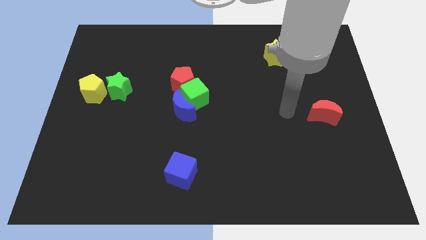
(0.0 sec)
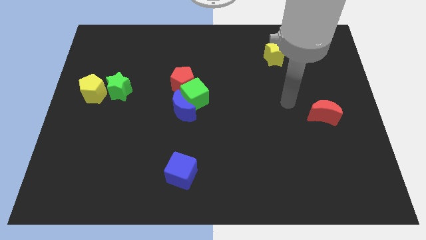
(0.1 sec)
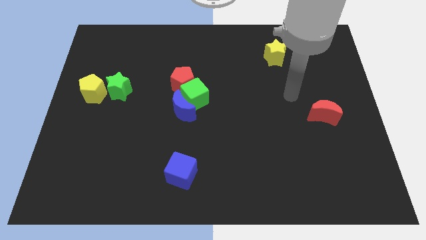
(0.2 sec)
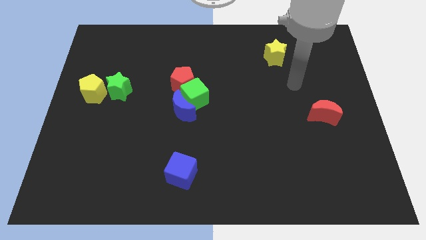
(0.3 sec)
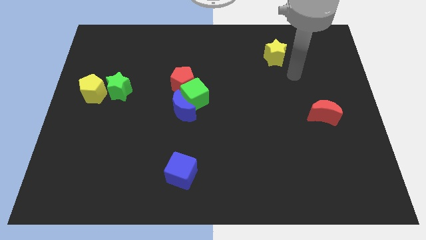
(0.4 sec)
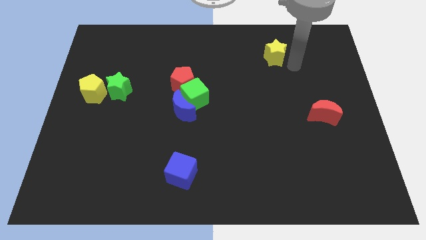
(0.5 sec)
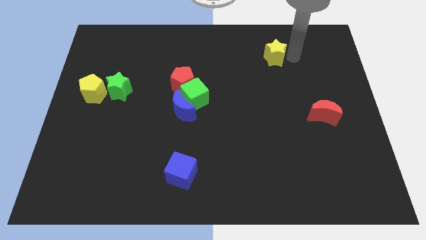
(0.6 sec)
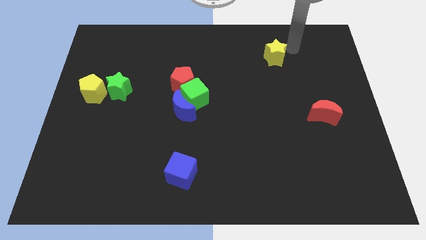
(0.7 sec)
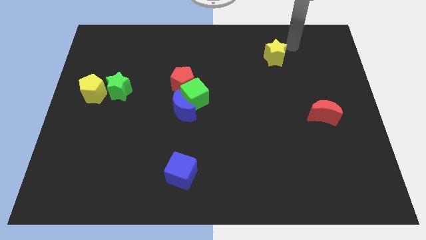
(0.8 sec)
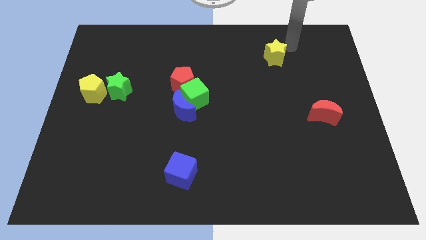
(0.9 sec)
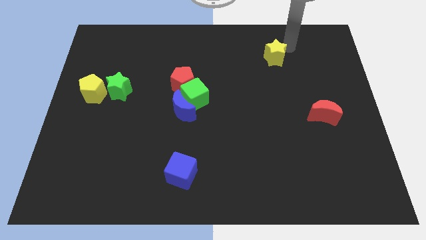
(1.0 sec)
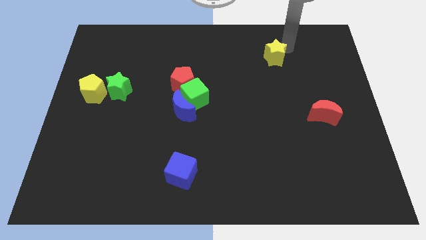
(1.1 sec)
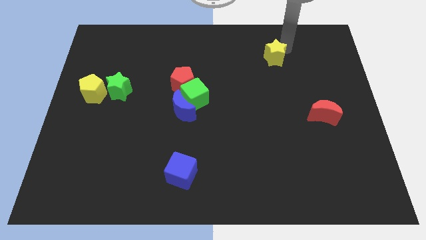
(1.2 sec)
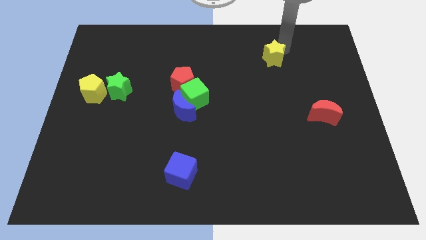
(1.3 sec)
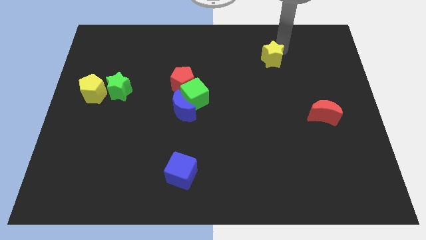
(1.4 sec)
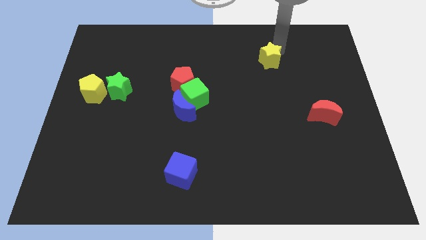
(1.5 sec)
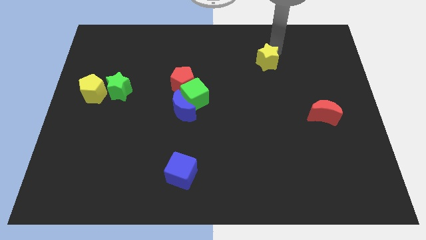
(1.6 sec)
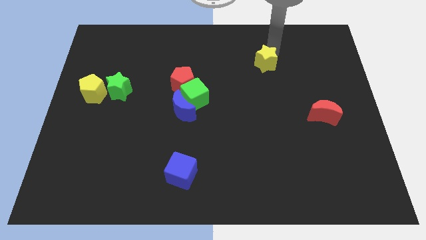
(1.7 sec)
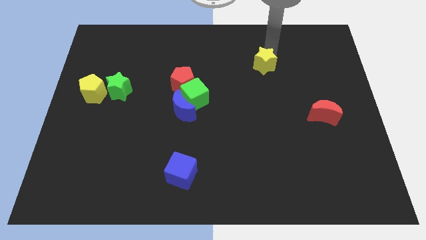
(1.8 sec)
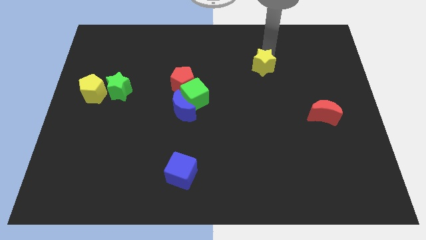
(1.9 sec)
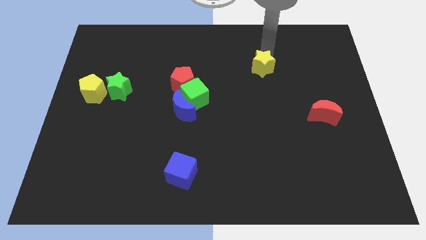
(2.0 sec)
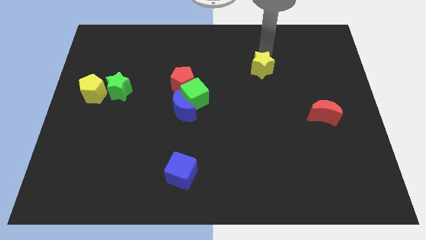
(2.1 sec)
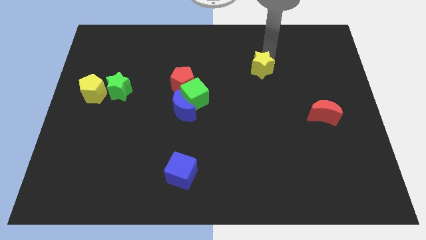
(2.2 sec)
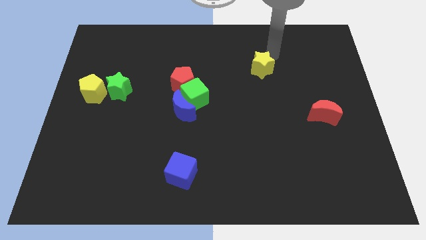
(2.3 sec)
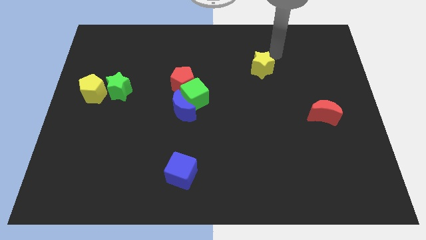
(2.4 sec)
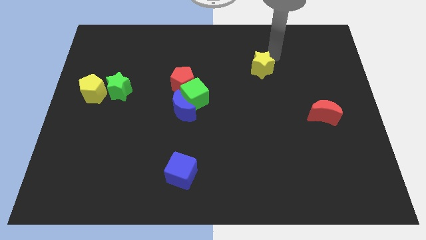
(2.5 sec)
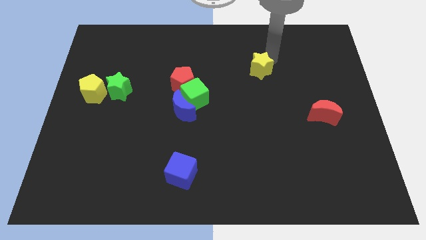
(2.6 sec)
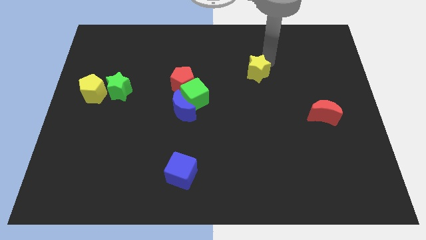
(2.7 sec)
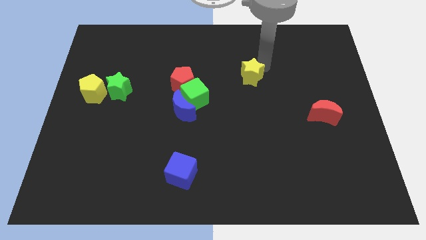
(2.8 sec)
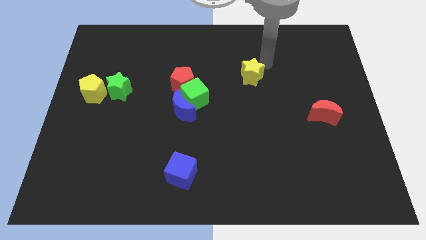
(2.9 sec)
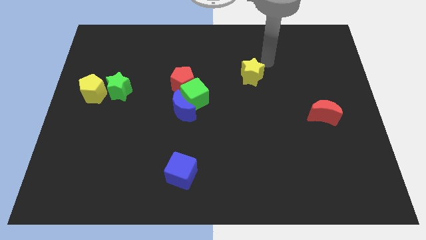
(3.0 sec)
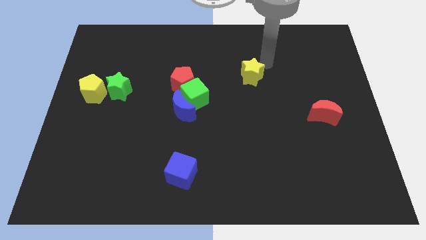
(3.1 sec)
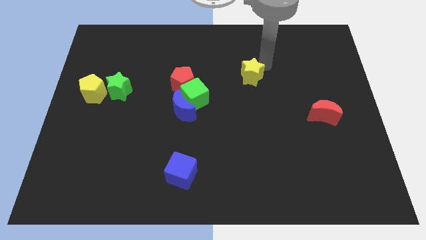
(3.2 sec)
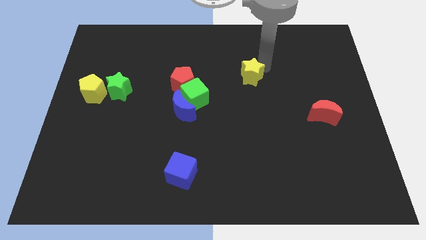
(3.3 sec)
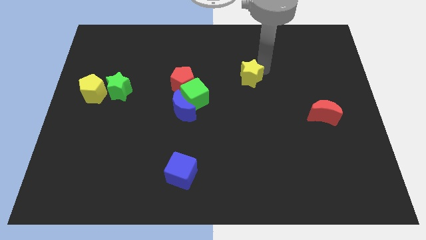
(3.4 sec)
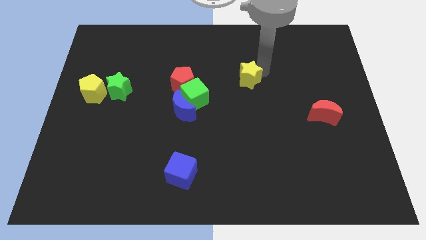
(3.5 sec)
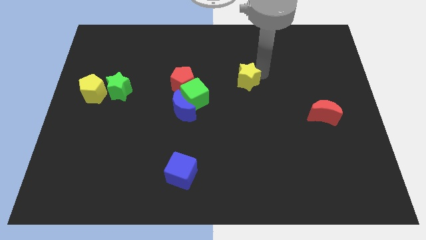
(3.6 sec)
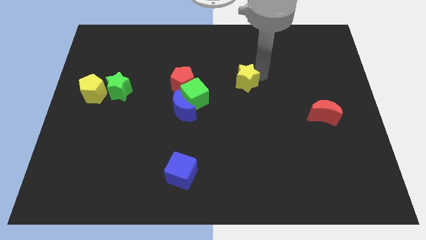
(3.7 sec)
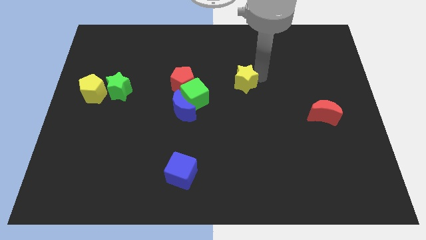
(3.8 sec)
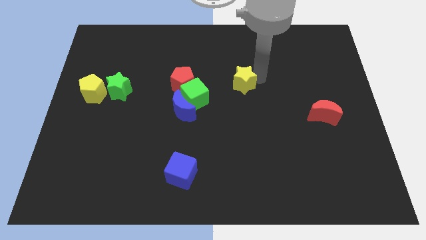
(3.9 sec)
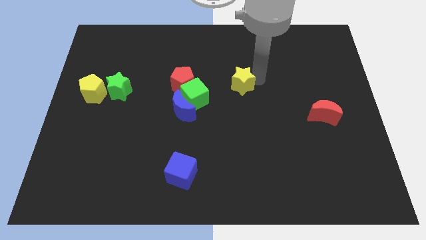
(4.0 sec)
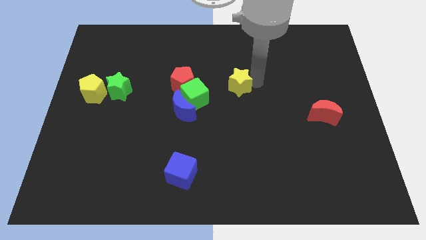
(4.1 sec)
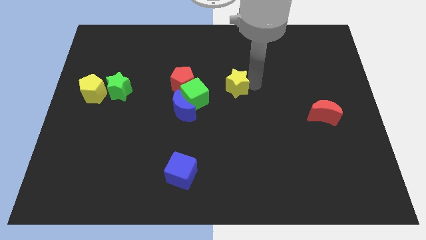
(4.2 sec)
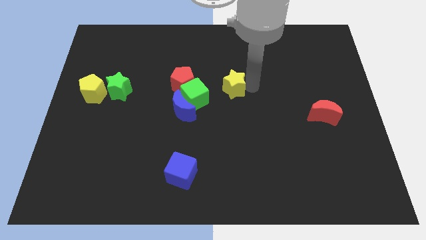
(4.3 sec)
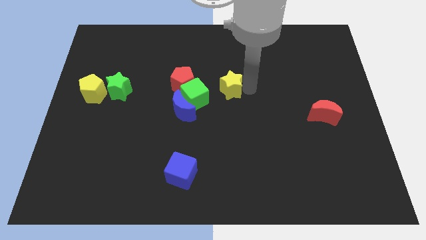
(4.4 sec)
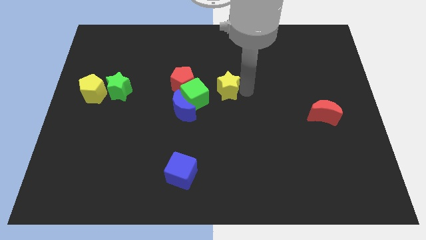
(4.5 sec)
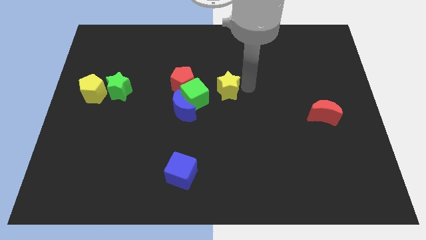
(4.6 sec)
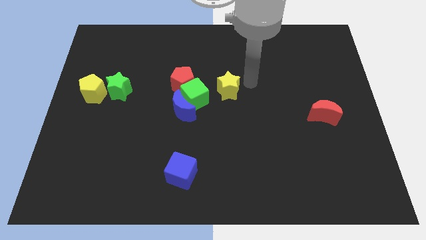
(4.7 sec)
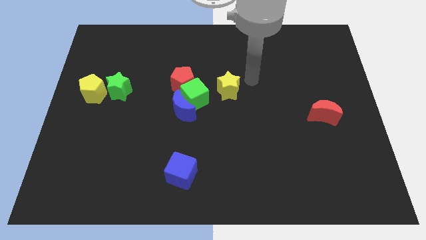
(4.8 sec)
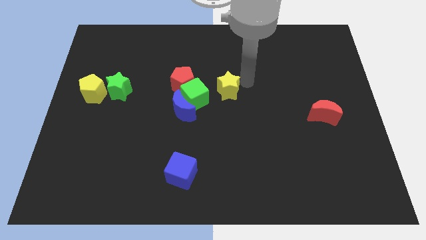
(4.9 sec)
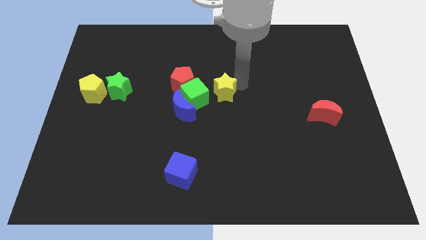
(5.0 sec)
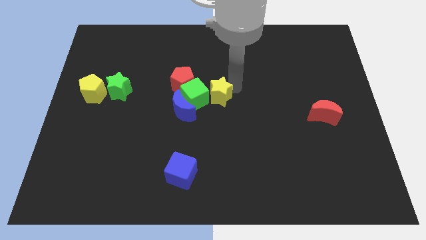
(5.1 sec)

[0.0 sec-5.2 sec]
slide the yellow star to the bottom right of the red pentagon

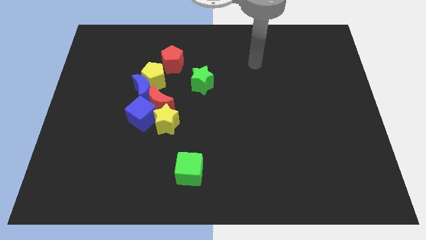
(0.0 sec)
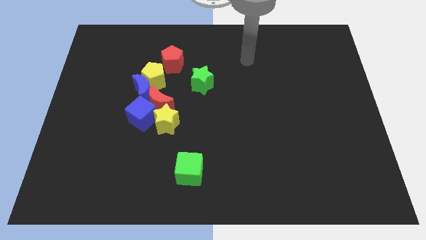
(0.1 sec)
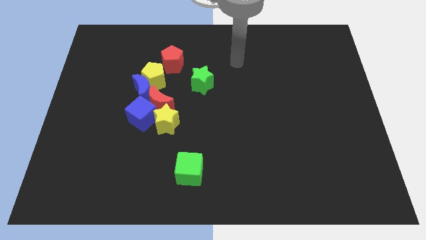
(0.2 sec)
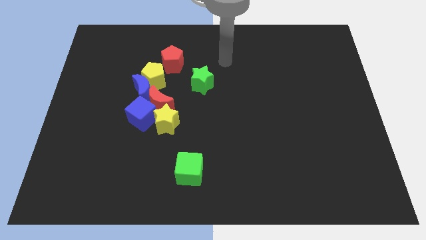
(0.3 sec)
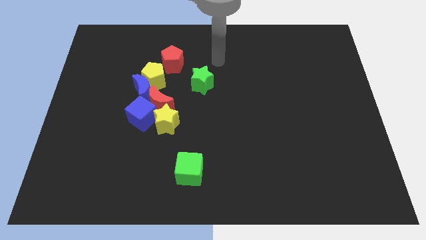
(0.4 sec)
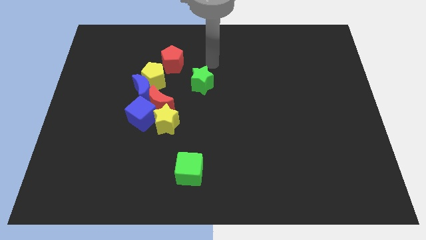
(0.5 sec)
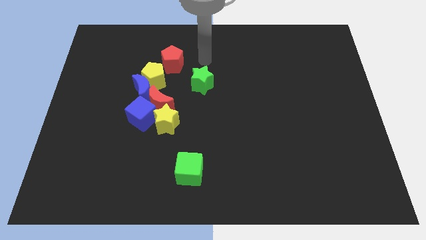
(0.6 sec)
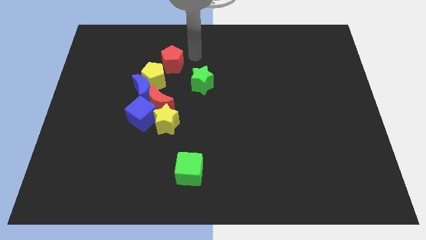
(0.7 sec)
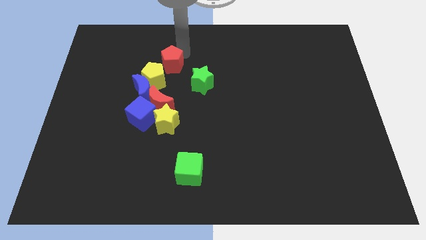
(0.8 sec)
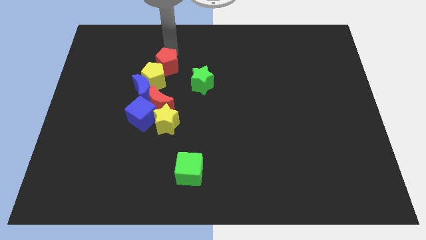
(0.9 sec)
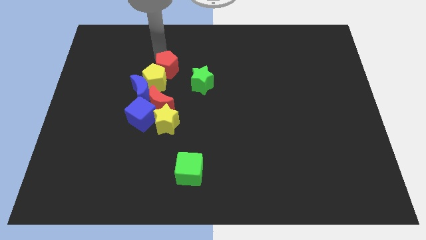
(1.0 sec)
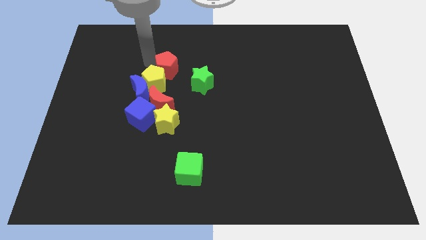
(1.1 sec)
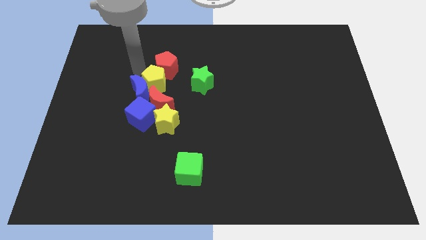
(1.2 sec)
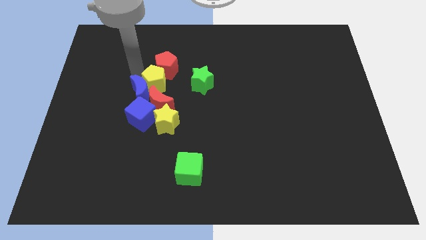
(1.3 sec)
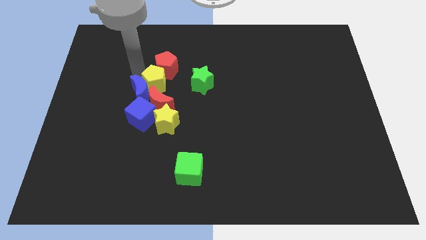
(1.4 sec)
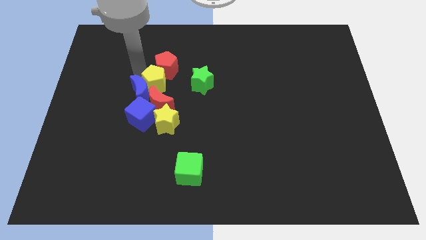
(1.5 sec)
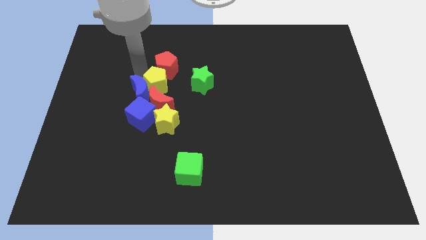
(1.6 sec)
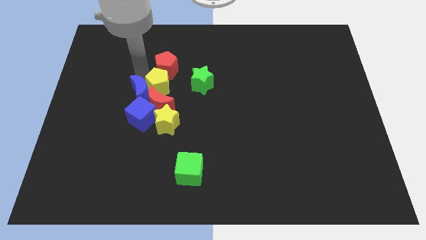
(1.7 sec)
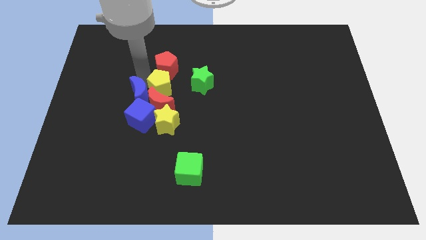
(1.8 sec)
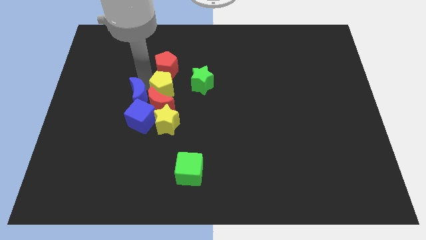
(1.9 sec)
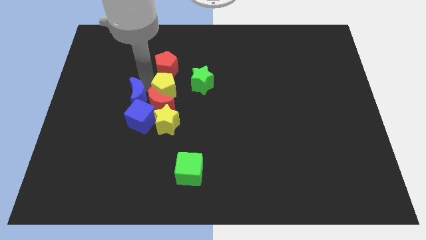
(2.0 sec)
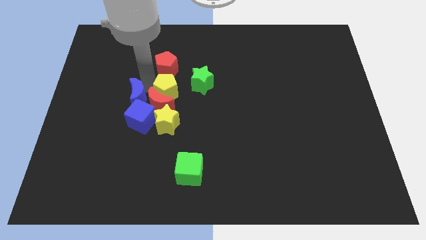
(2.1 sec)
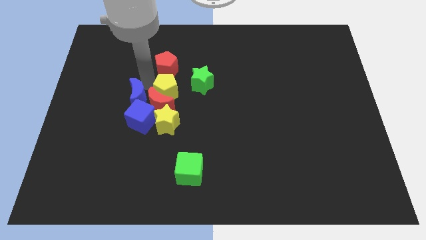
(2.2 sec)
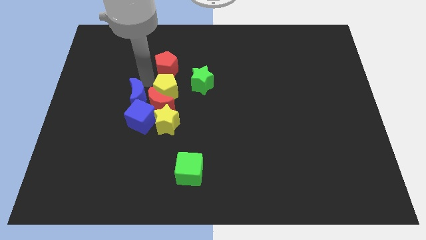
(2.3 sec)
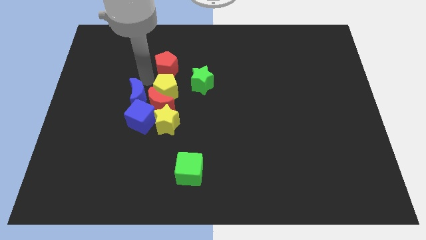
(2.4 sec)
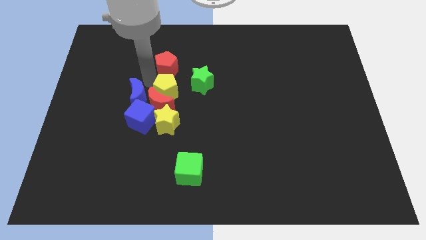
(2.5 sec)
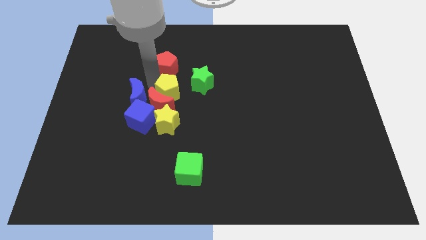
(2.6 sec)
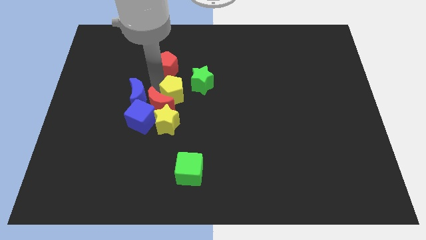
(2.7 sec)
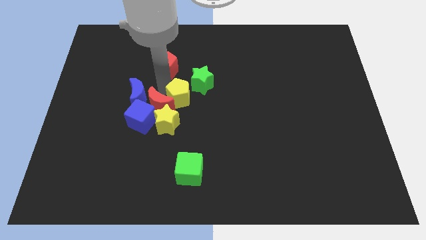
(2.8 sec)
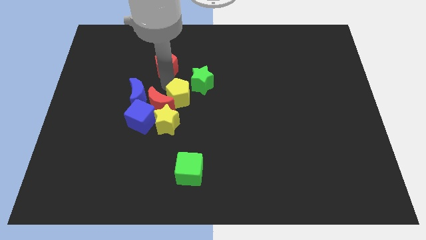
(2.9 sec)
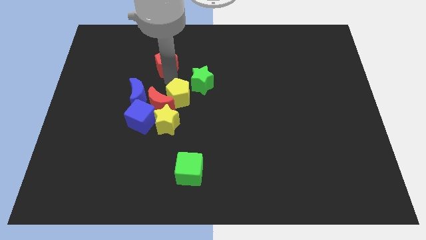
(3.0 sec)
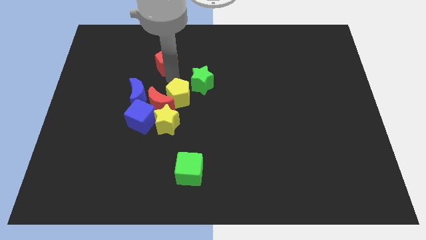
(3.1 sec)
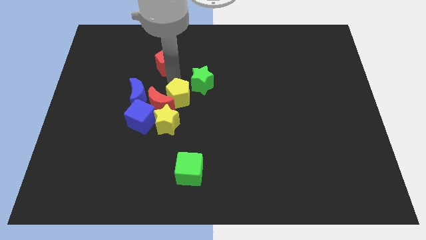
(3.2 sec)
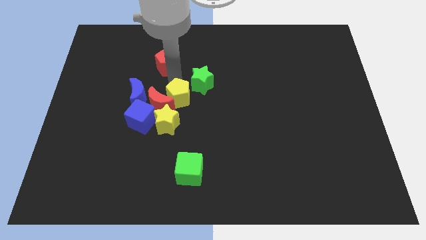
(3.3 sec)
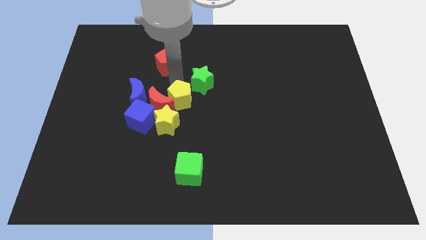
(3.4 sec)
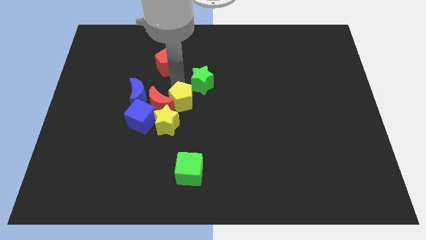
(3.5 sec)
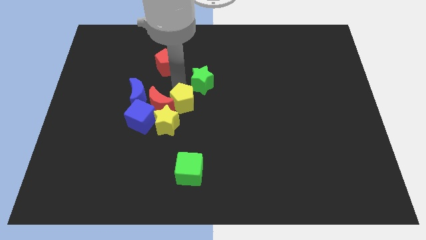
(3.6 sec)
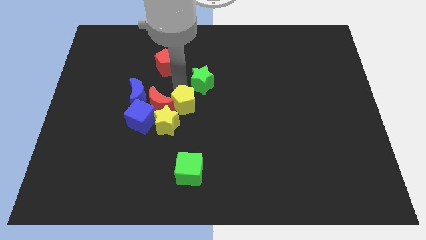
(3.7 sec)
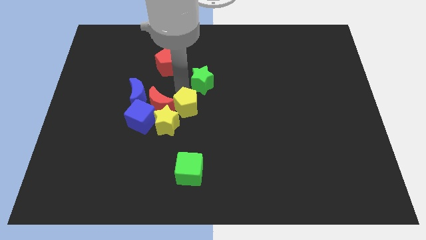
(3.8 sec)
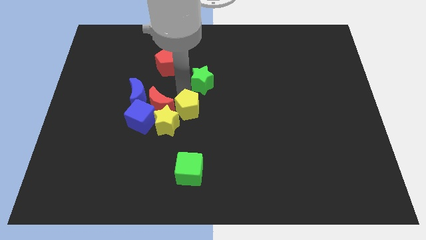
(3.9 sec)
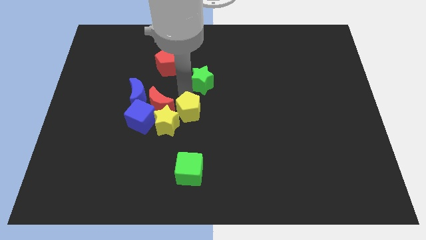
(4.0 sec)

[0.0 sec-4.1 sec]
slide the yellow pentagon to the top of the green cube
